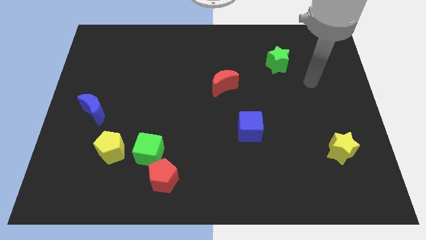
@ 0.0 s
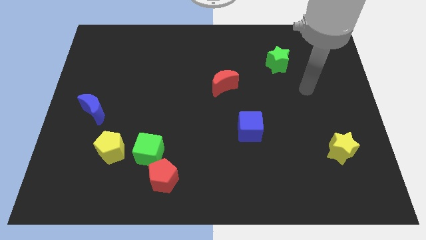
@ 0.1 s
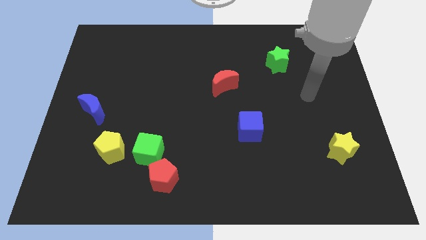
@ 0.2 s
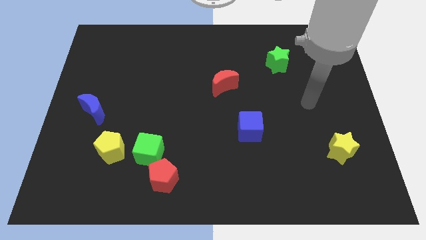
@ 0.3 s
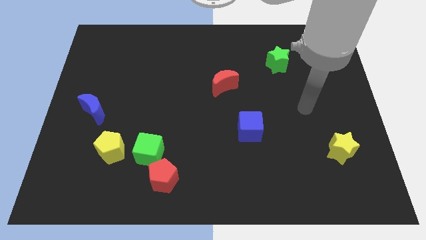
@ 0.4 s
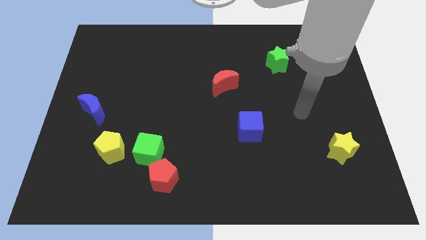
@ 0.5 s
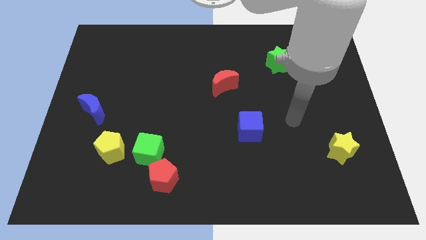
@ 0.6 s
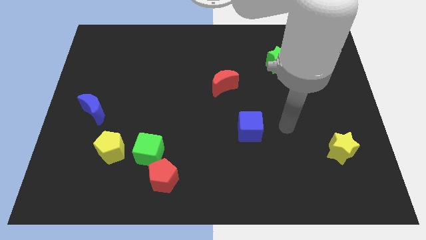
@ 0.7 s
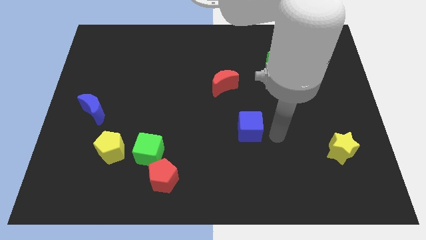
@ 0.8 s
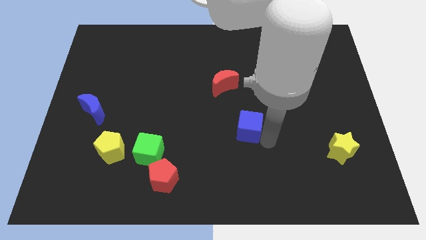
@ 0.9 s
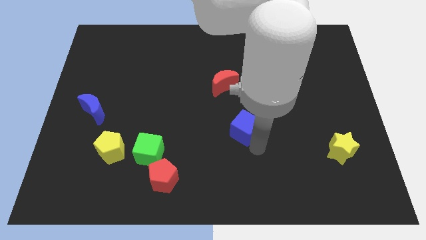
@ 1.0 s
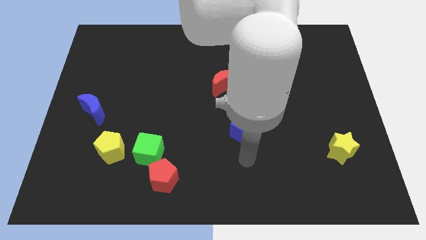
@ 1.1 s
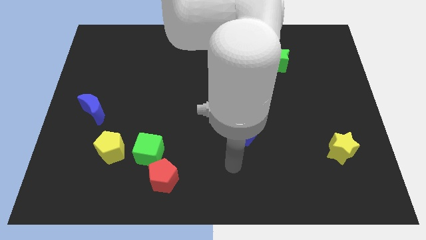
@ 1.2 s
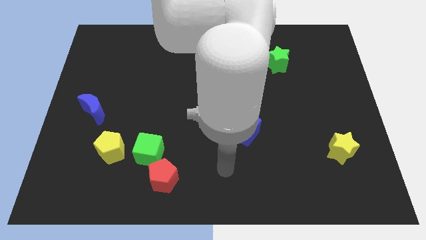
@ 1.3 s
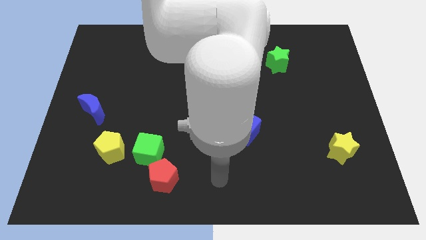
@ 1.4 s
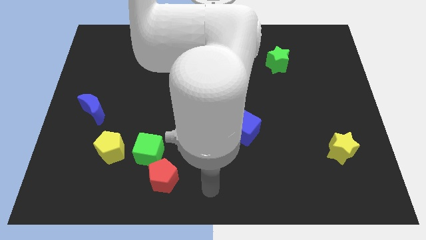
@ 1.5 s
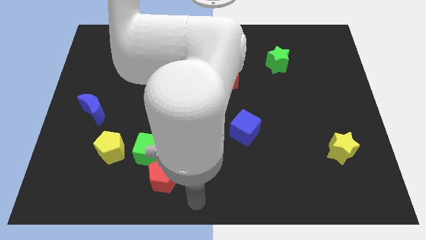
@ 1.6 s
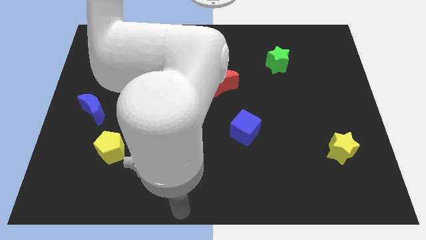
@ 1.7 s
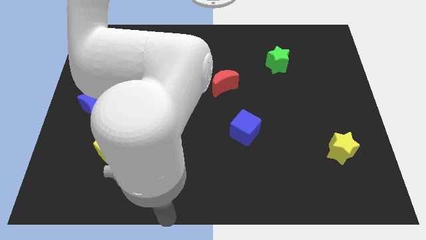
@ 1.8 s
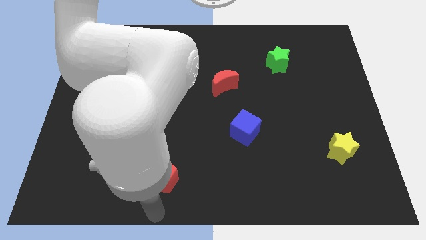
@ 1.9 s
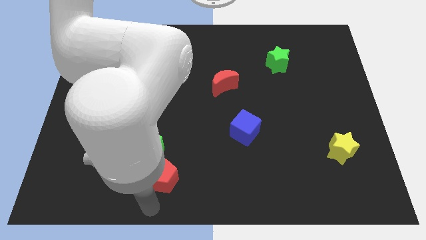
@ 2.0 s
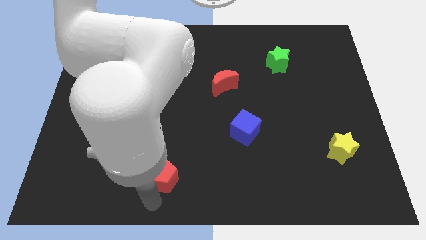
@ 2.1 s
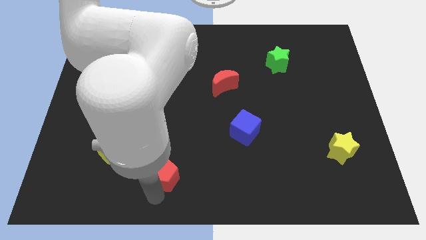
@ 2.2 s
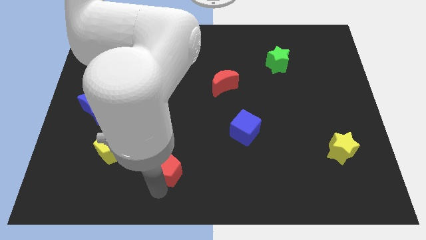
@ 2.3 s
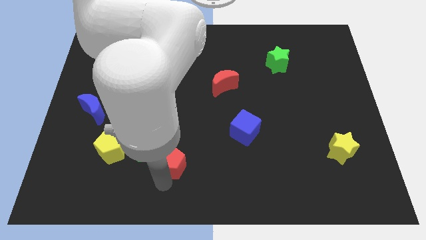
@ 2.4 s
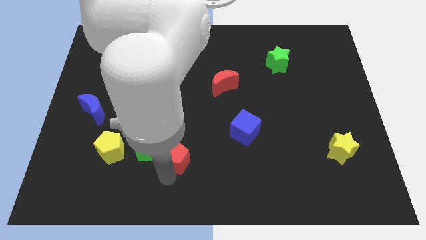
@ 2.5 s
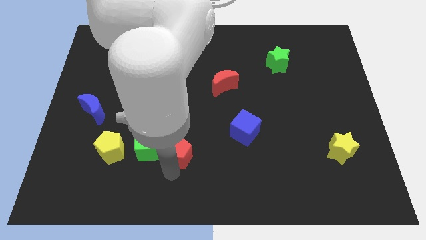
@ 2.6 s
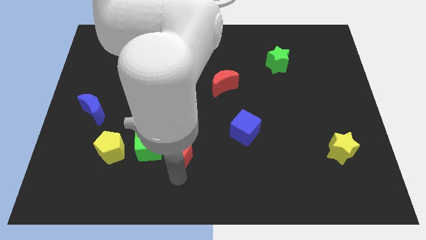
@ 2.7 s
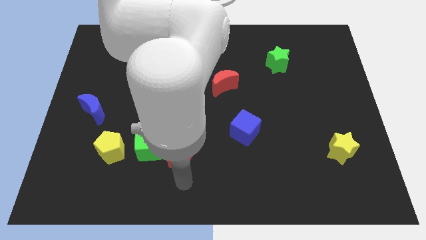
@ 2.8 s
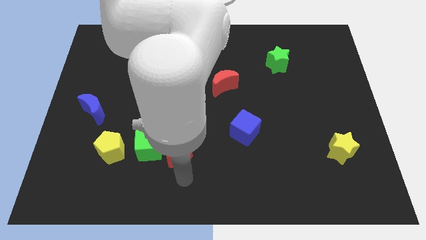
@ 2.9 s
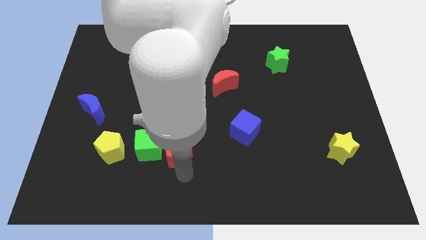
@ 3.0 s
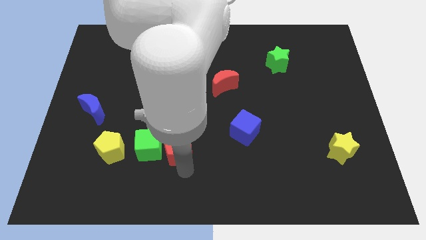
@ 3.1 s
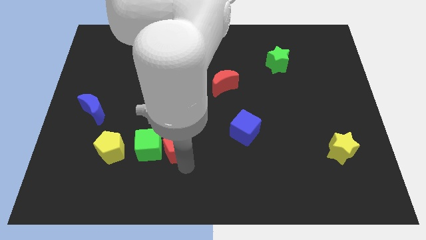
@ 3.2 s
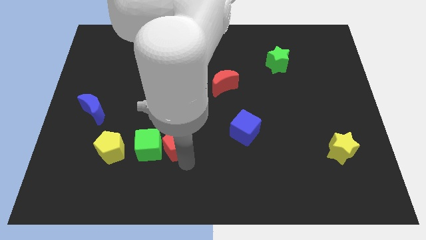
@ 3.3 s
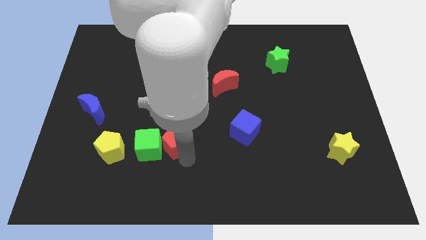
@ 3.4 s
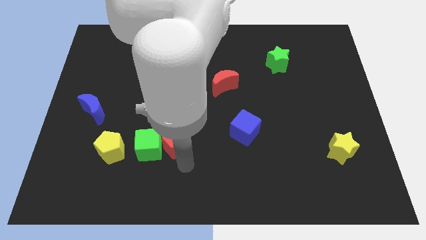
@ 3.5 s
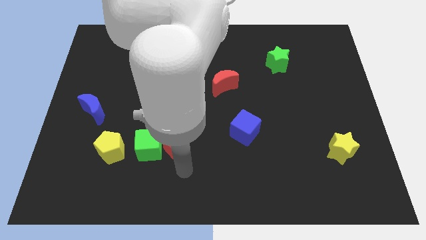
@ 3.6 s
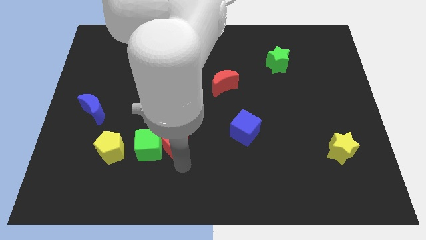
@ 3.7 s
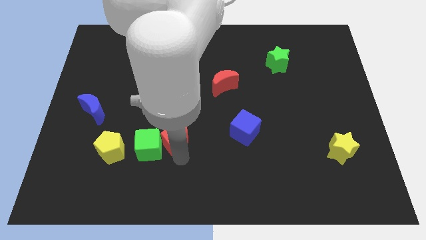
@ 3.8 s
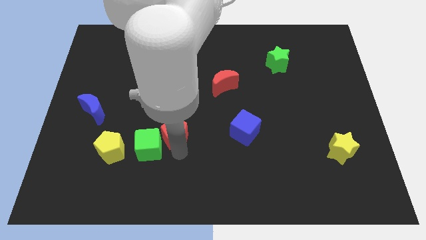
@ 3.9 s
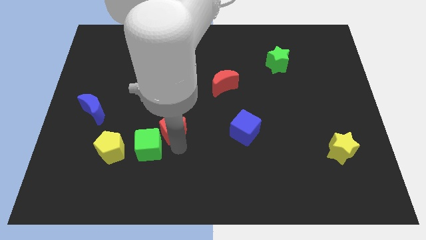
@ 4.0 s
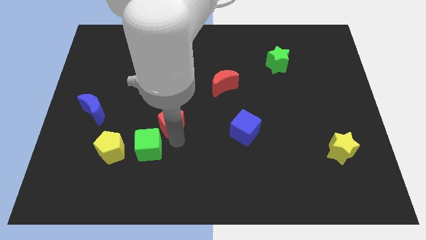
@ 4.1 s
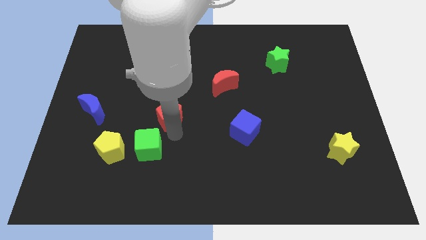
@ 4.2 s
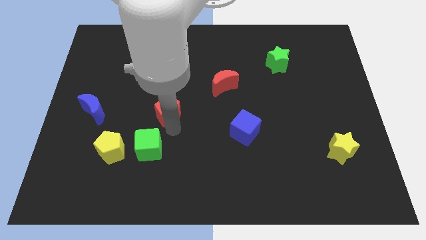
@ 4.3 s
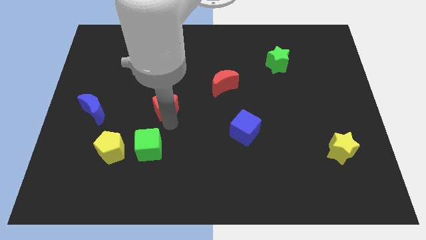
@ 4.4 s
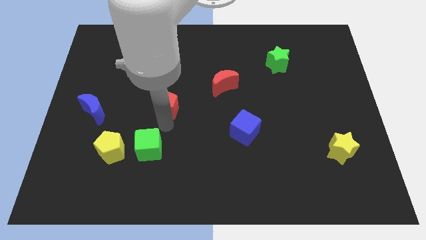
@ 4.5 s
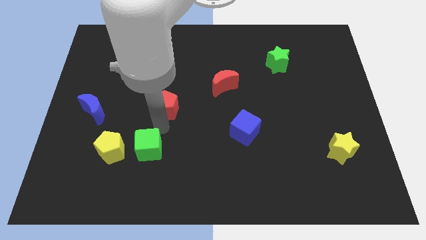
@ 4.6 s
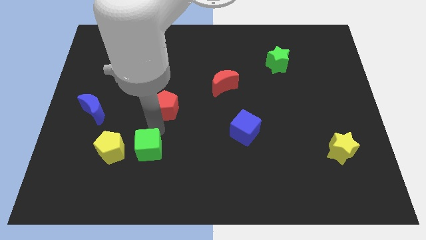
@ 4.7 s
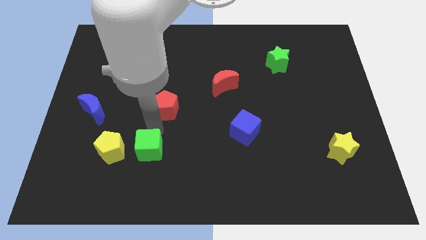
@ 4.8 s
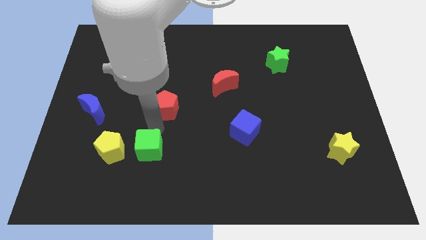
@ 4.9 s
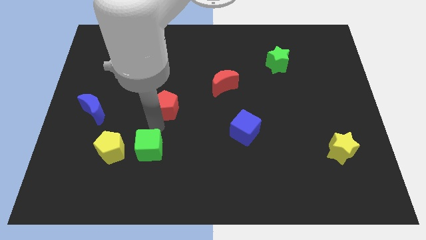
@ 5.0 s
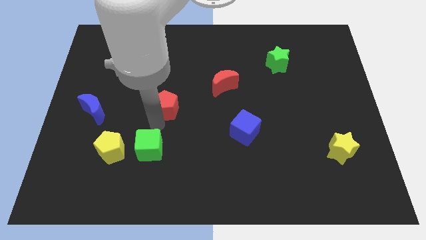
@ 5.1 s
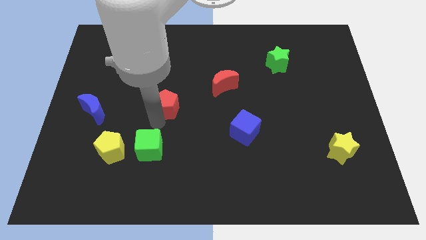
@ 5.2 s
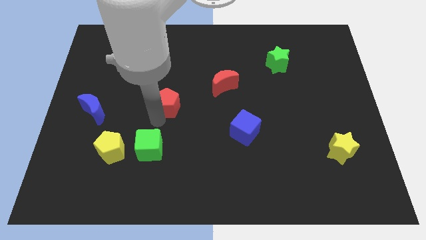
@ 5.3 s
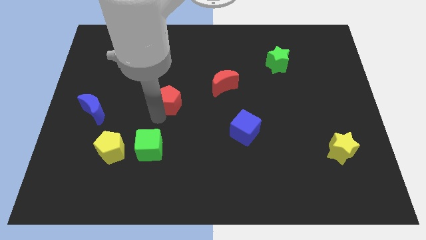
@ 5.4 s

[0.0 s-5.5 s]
slide the red pentagon upwards

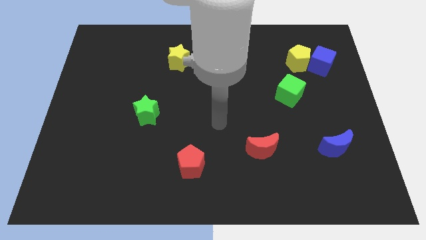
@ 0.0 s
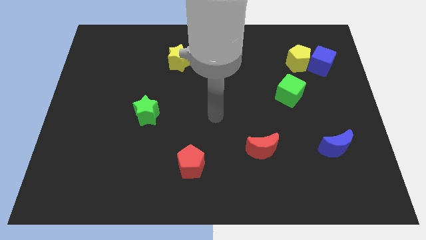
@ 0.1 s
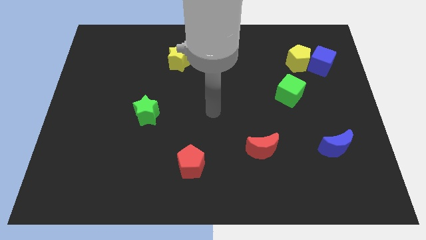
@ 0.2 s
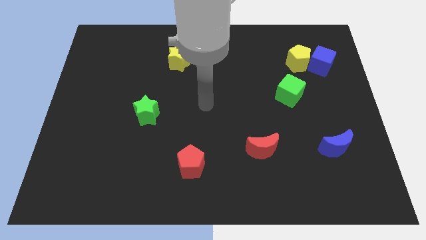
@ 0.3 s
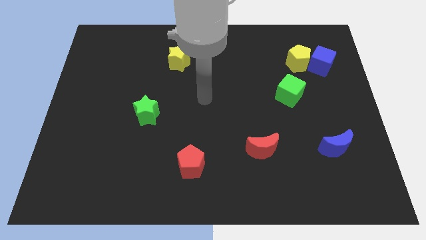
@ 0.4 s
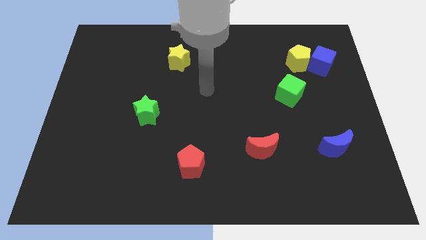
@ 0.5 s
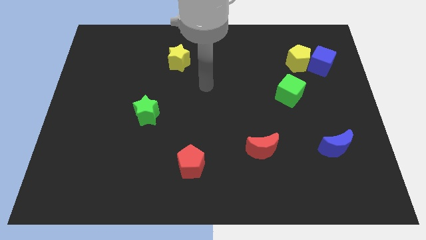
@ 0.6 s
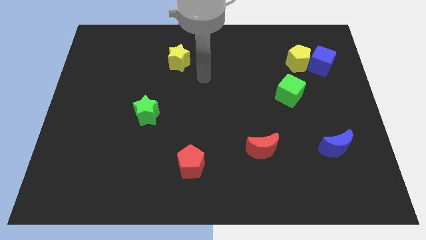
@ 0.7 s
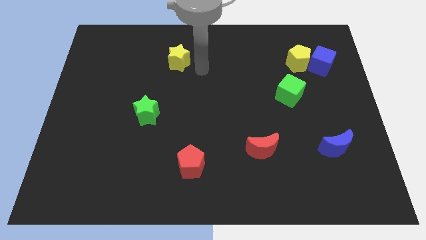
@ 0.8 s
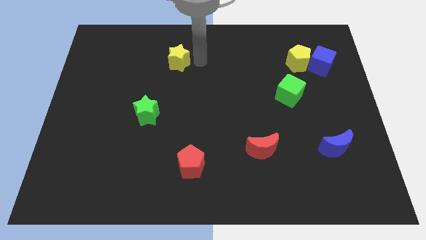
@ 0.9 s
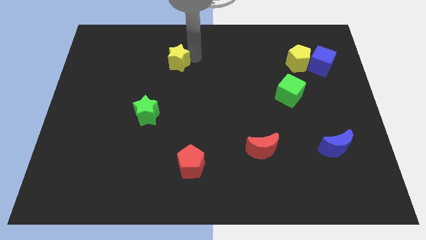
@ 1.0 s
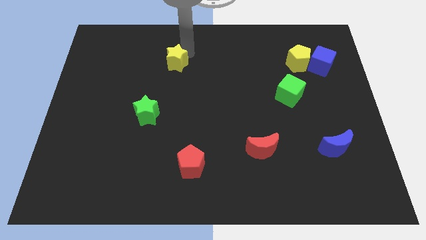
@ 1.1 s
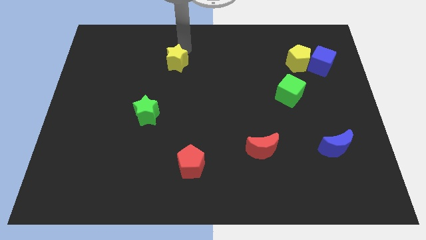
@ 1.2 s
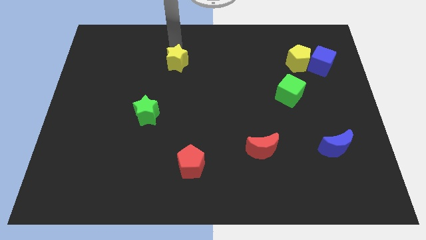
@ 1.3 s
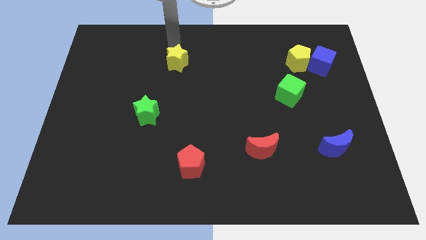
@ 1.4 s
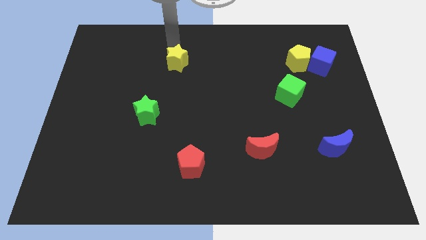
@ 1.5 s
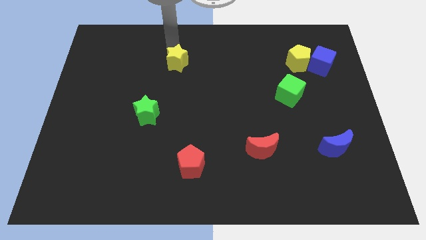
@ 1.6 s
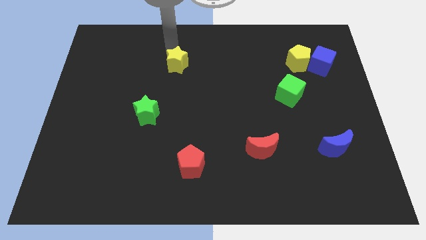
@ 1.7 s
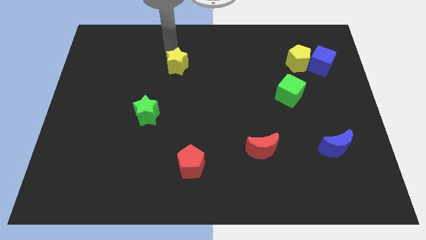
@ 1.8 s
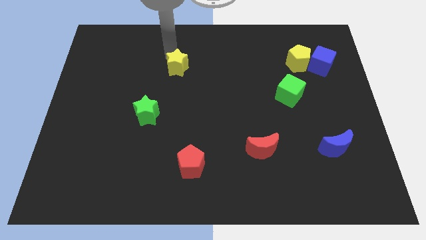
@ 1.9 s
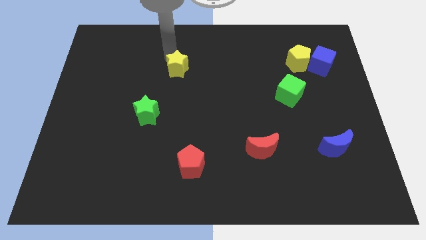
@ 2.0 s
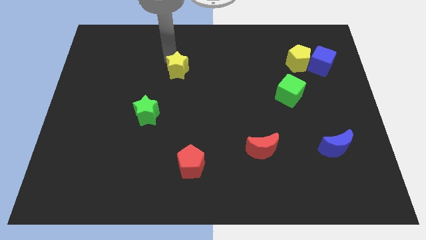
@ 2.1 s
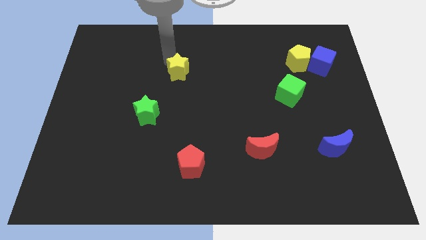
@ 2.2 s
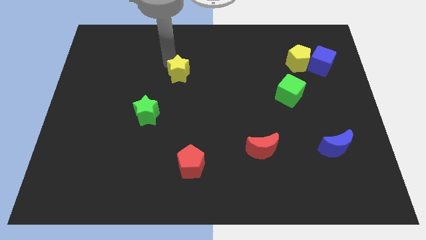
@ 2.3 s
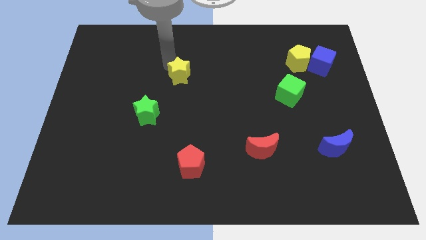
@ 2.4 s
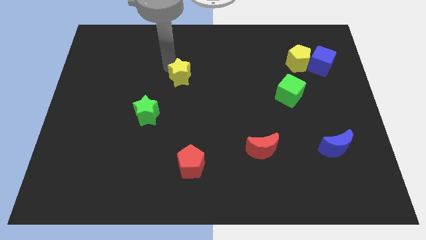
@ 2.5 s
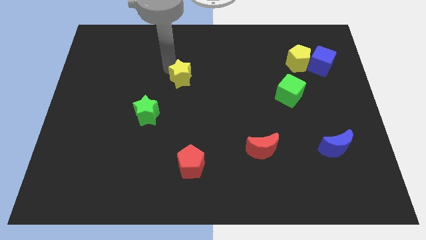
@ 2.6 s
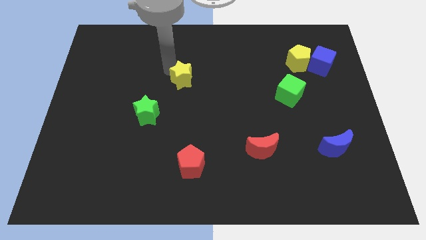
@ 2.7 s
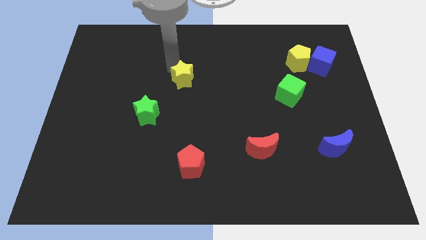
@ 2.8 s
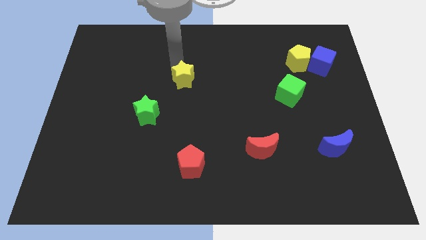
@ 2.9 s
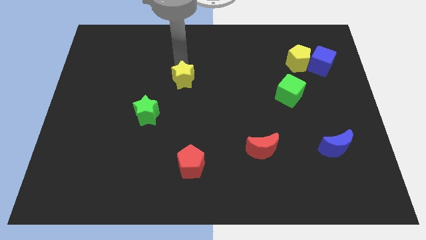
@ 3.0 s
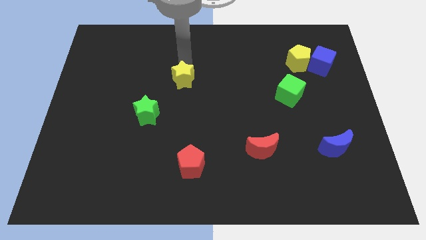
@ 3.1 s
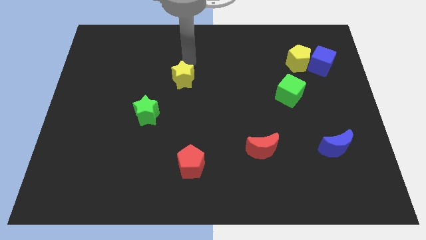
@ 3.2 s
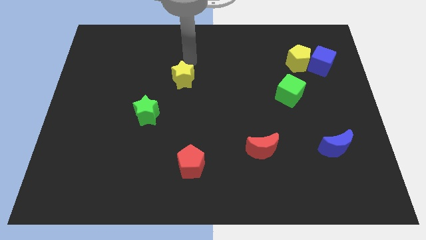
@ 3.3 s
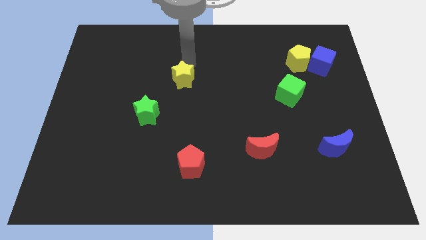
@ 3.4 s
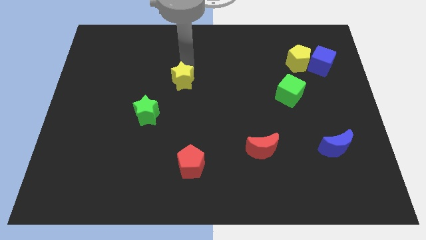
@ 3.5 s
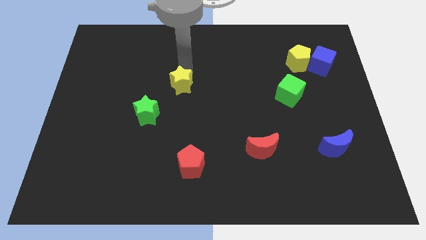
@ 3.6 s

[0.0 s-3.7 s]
move the yellow star down a little
